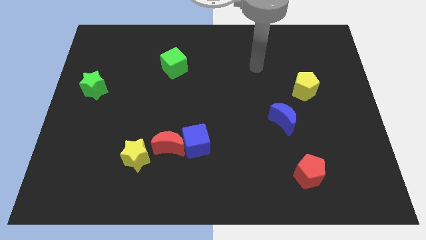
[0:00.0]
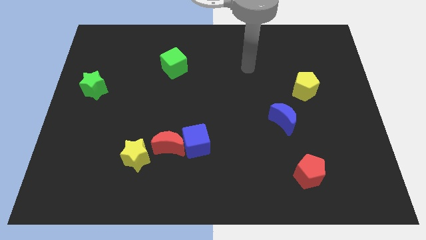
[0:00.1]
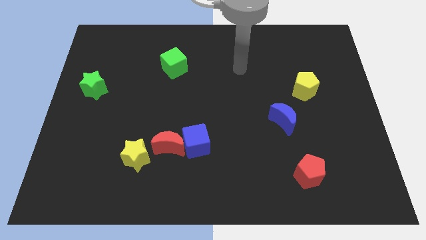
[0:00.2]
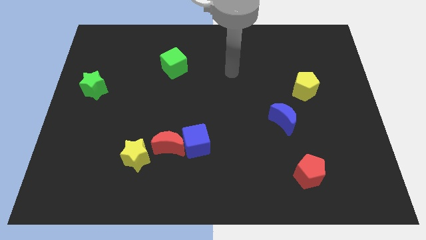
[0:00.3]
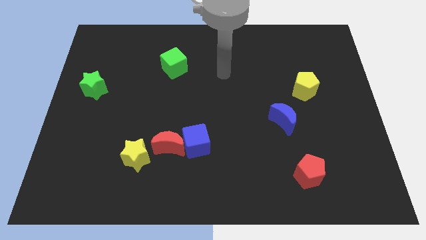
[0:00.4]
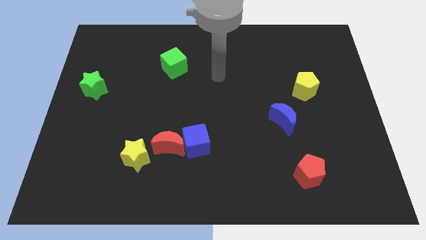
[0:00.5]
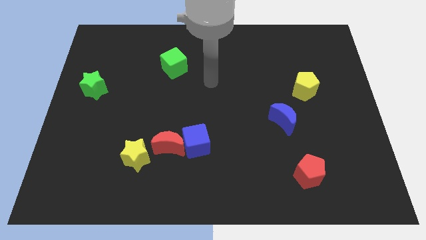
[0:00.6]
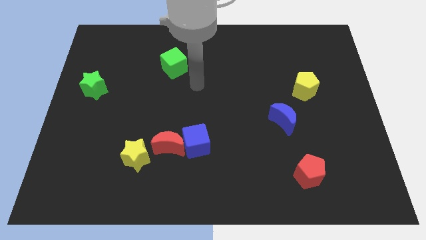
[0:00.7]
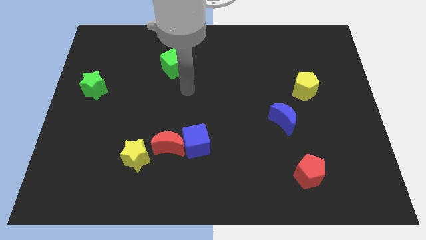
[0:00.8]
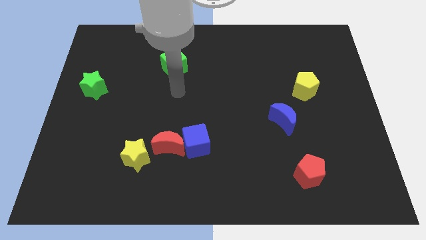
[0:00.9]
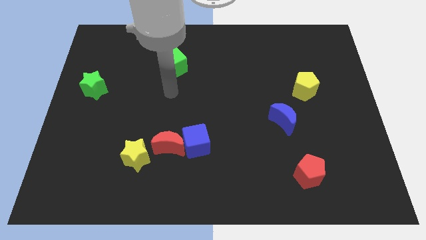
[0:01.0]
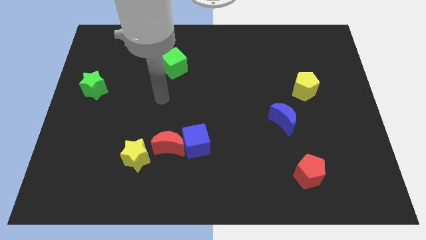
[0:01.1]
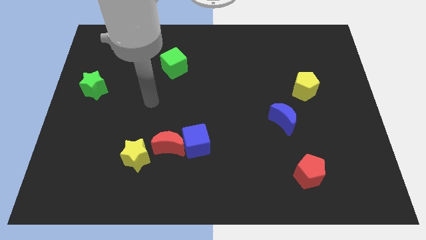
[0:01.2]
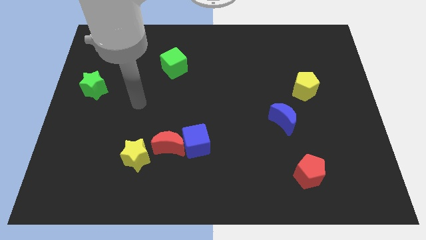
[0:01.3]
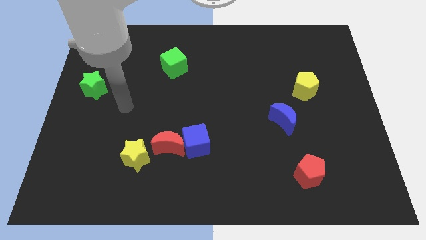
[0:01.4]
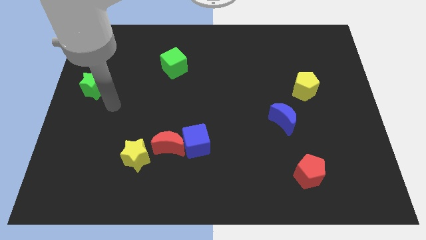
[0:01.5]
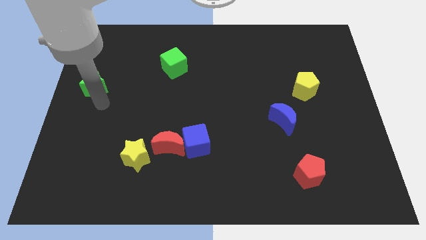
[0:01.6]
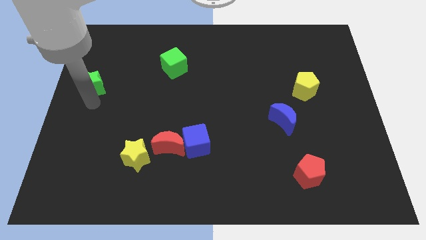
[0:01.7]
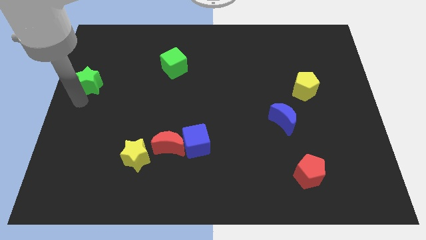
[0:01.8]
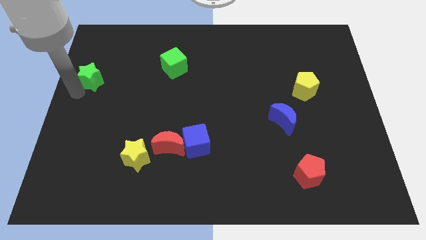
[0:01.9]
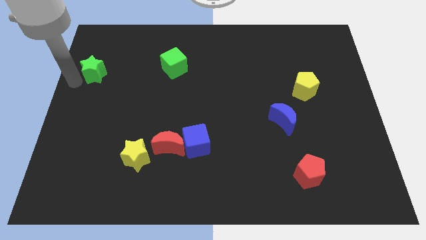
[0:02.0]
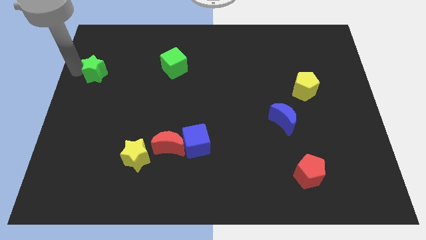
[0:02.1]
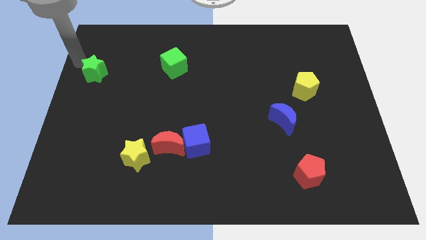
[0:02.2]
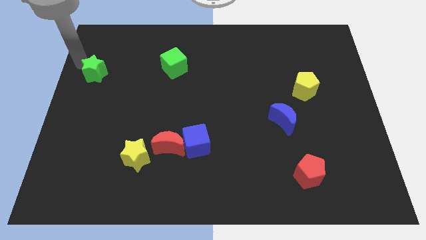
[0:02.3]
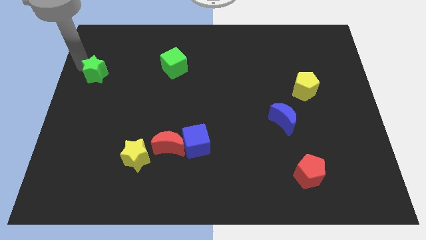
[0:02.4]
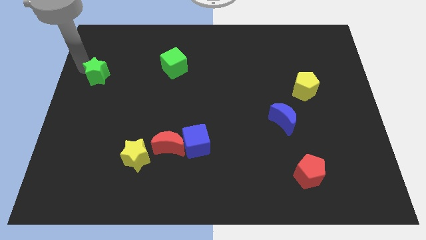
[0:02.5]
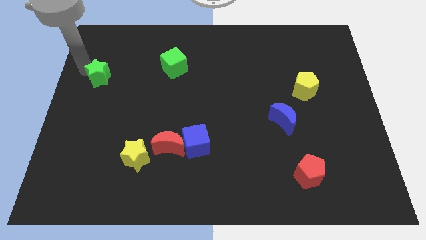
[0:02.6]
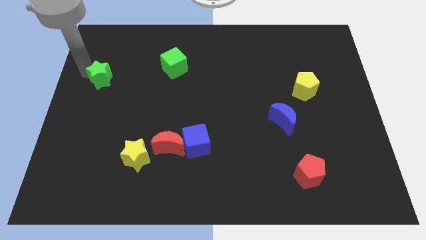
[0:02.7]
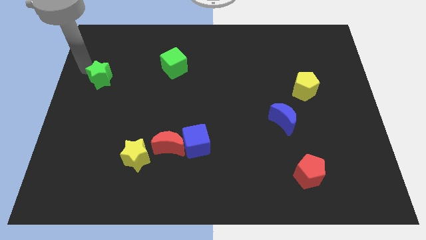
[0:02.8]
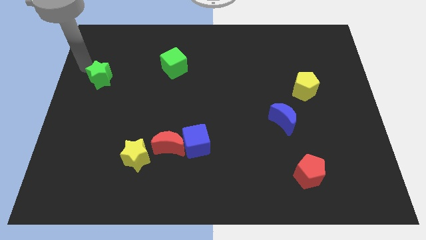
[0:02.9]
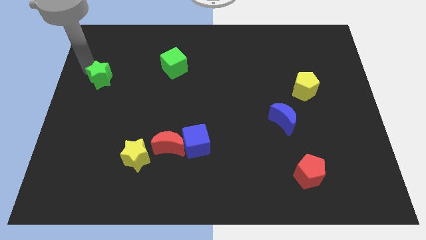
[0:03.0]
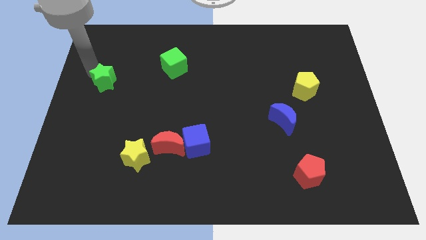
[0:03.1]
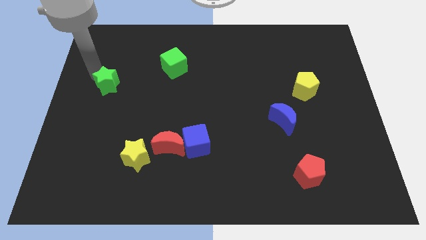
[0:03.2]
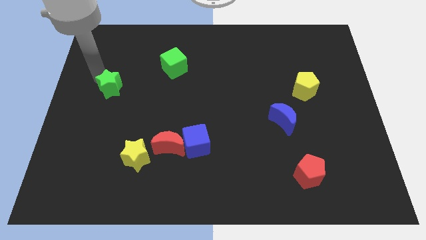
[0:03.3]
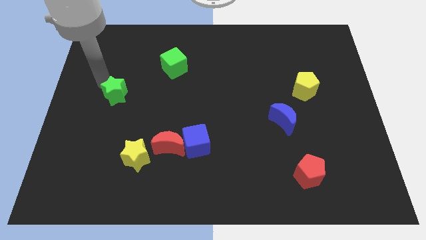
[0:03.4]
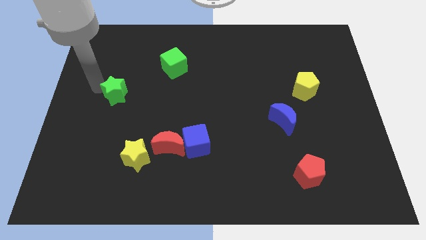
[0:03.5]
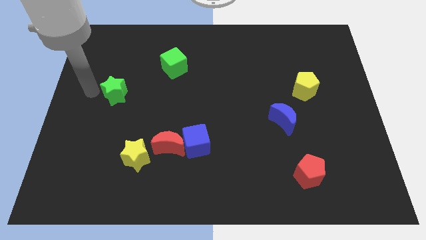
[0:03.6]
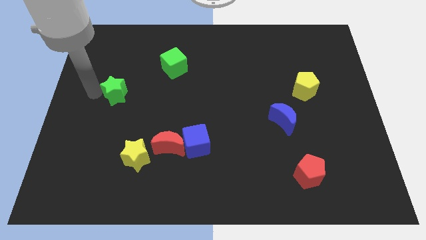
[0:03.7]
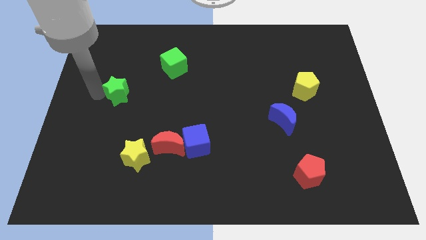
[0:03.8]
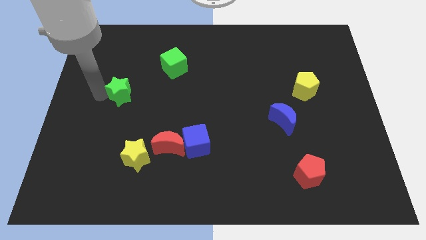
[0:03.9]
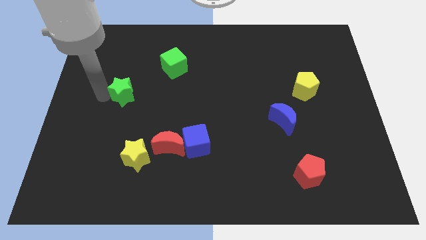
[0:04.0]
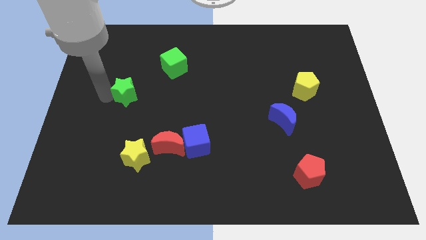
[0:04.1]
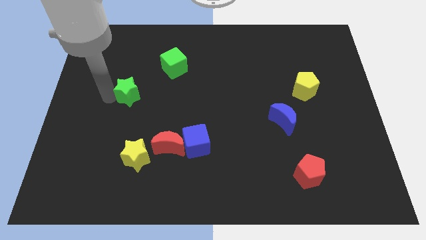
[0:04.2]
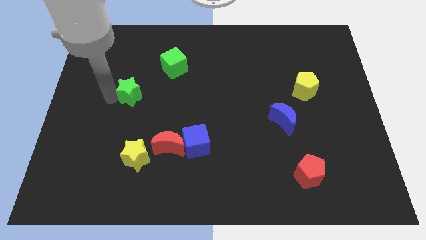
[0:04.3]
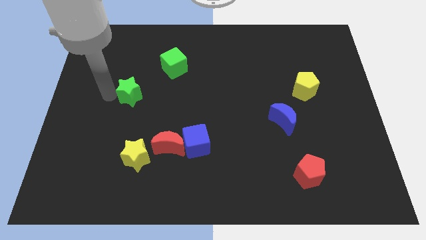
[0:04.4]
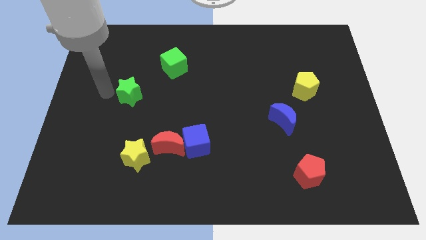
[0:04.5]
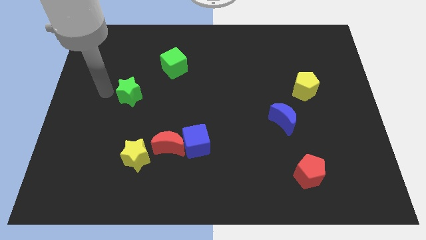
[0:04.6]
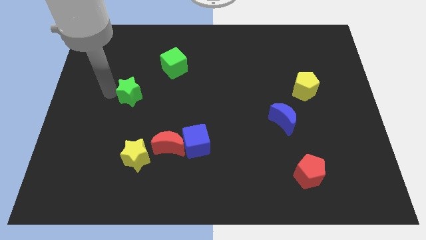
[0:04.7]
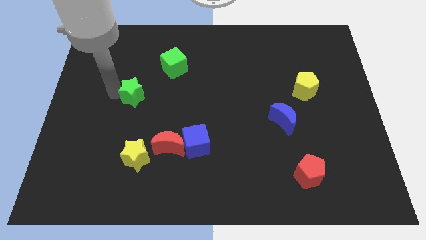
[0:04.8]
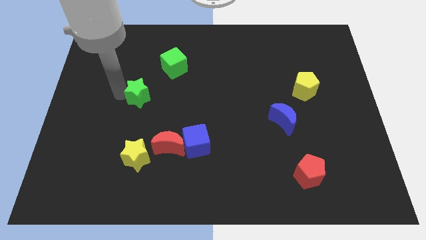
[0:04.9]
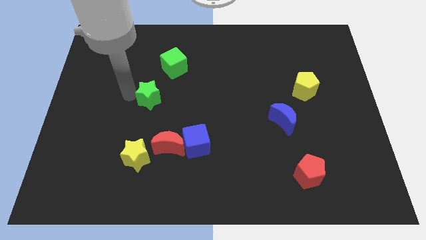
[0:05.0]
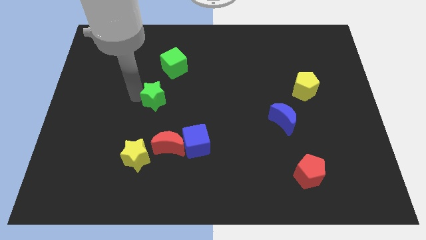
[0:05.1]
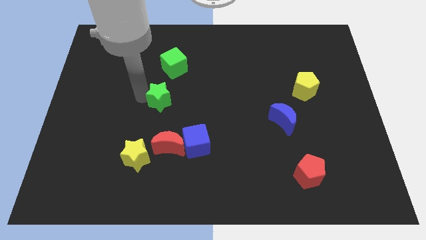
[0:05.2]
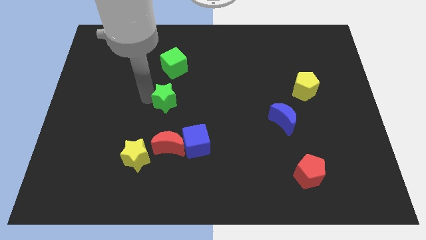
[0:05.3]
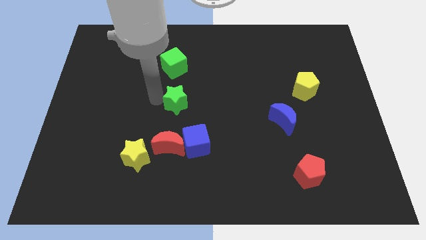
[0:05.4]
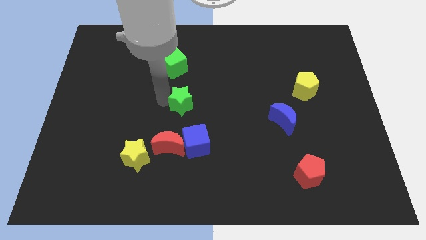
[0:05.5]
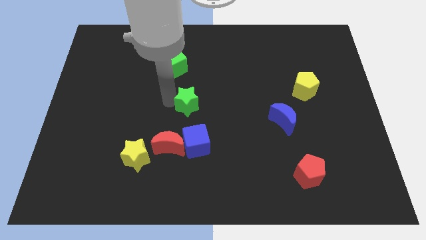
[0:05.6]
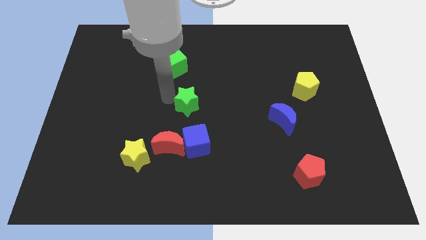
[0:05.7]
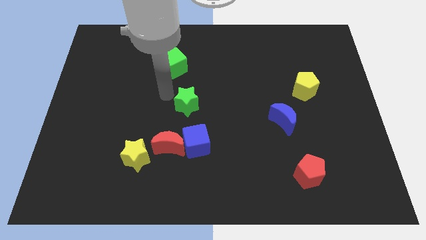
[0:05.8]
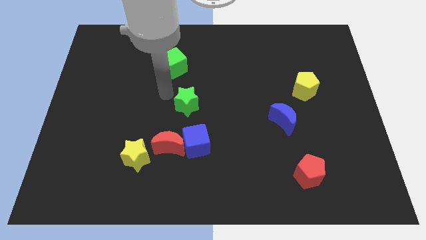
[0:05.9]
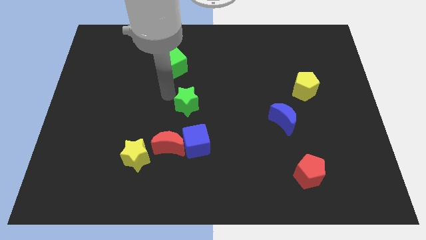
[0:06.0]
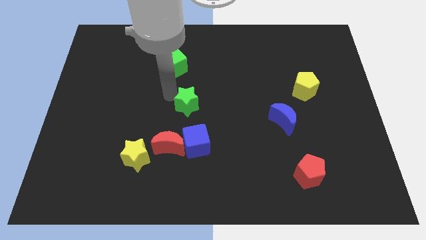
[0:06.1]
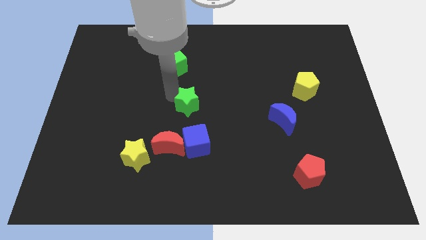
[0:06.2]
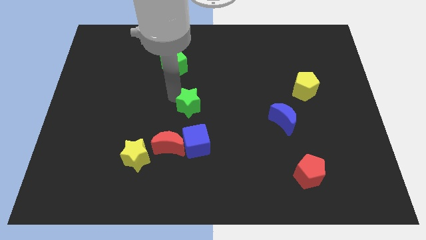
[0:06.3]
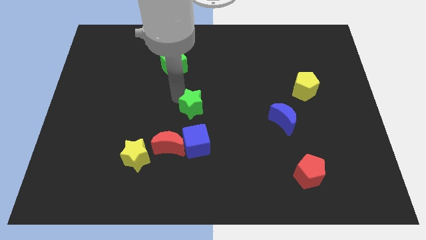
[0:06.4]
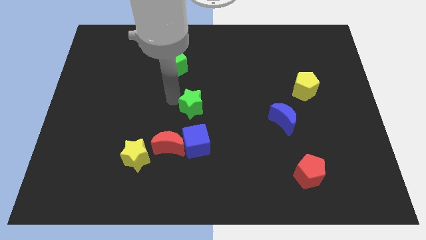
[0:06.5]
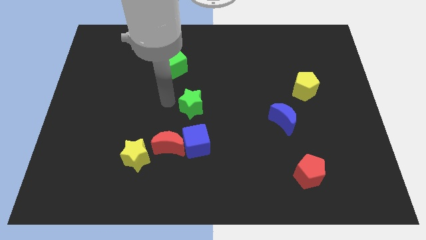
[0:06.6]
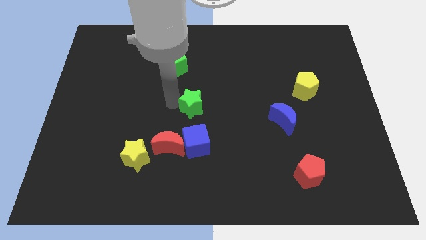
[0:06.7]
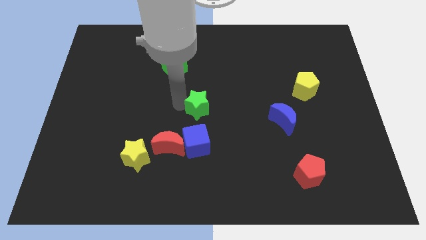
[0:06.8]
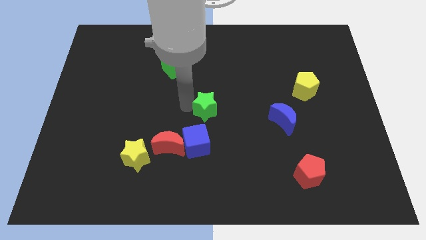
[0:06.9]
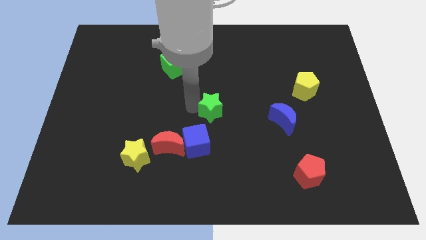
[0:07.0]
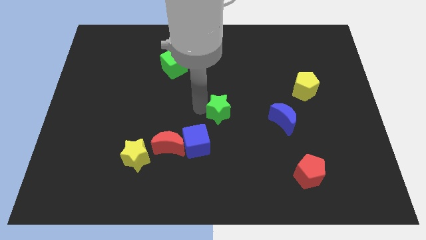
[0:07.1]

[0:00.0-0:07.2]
push the green star to the left of the blue moon
